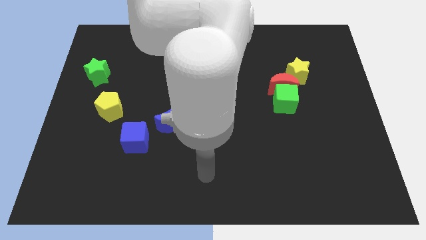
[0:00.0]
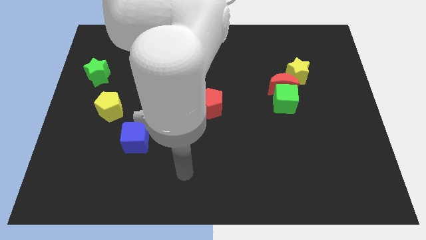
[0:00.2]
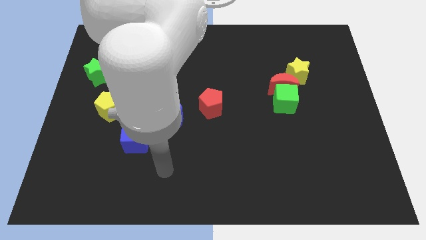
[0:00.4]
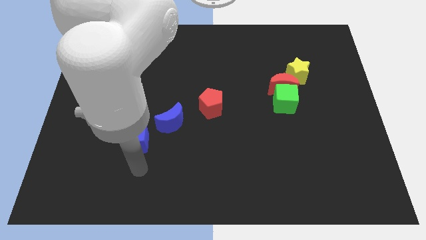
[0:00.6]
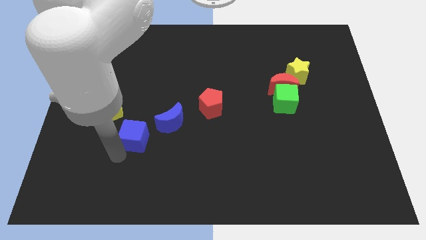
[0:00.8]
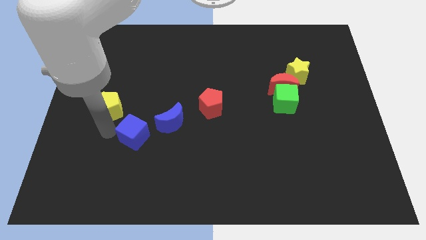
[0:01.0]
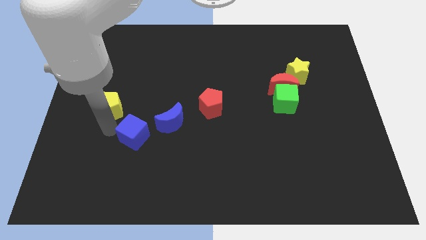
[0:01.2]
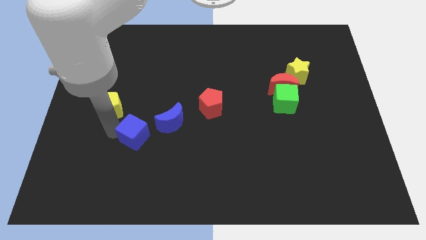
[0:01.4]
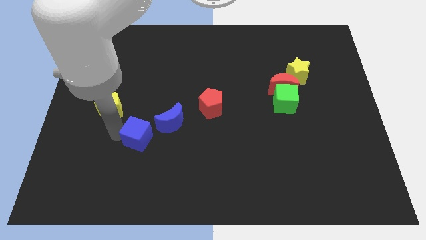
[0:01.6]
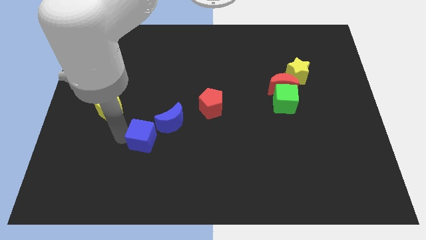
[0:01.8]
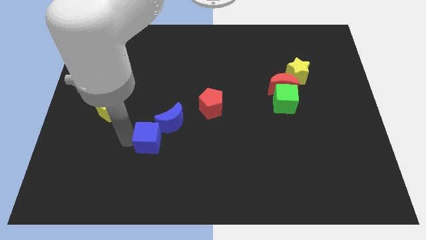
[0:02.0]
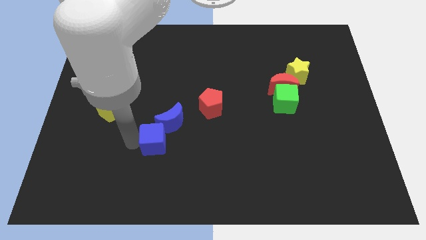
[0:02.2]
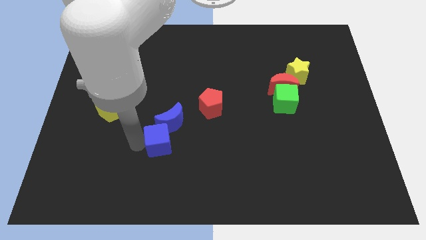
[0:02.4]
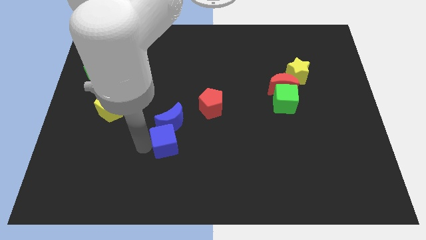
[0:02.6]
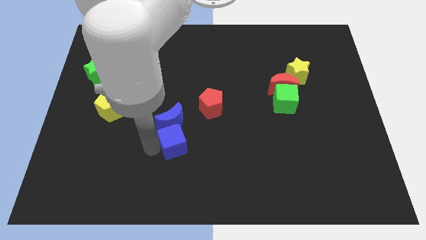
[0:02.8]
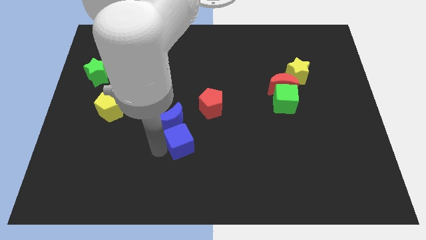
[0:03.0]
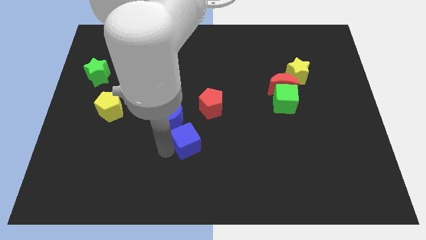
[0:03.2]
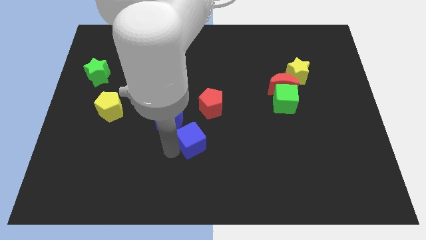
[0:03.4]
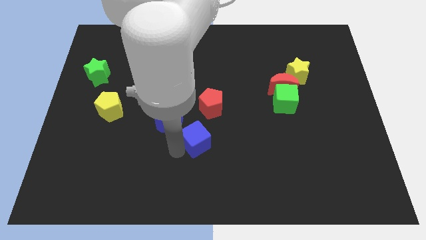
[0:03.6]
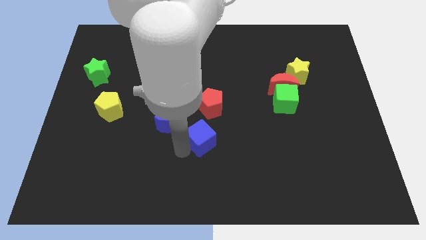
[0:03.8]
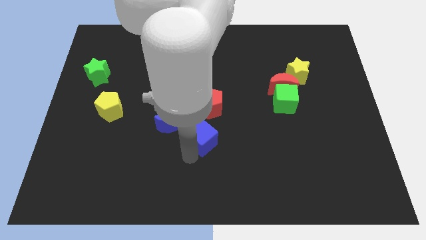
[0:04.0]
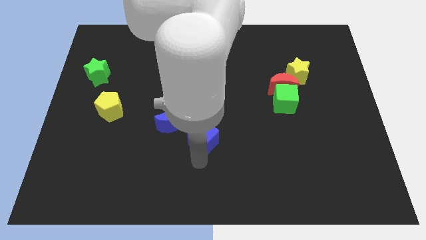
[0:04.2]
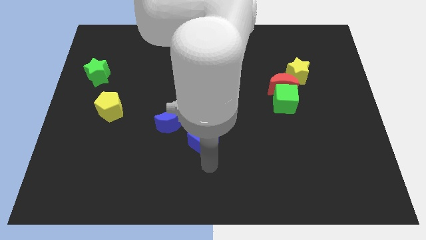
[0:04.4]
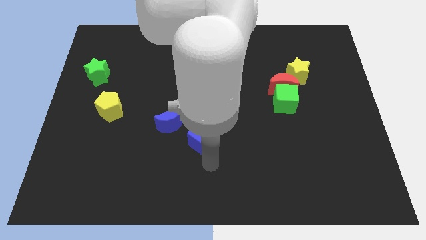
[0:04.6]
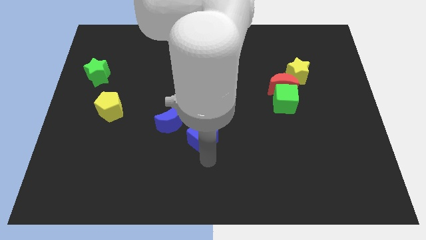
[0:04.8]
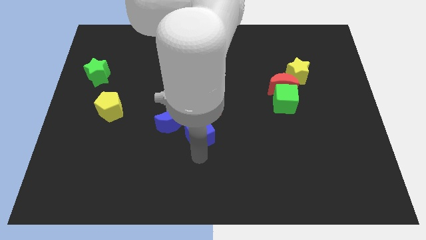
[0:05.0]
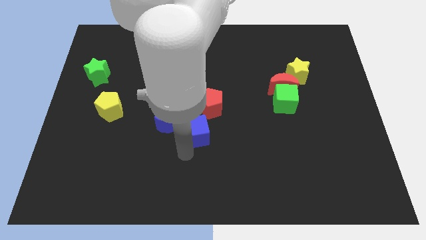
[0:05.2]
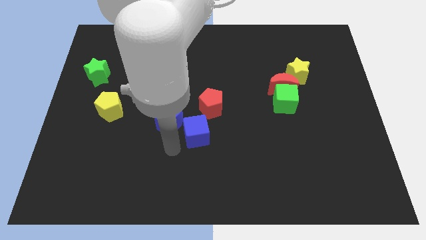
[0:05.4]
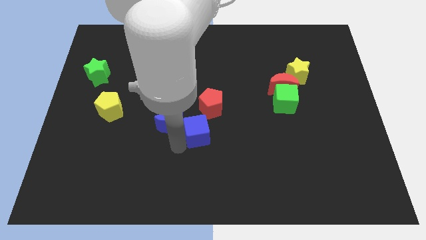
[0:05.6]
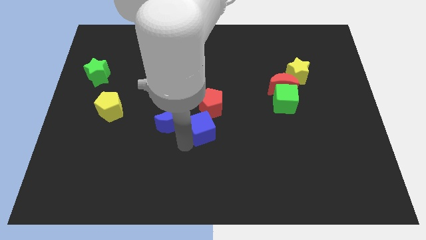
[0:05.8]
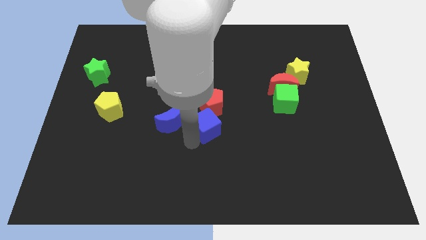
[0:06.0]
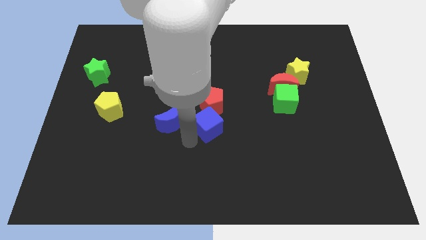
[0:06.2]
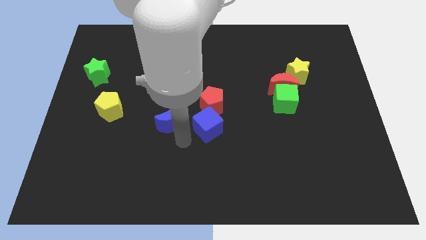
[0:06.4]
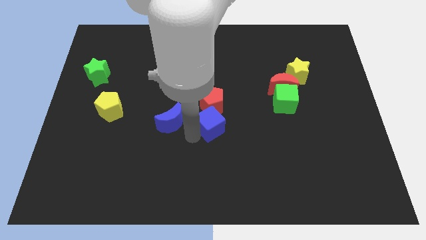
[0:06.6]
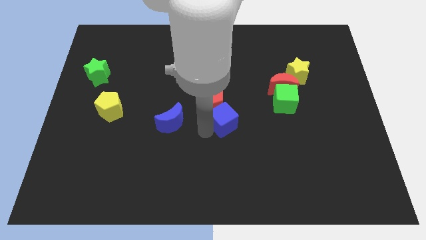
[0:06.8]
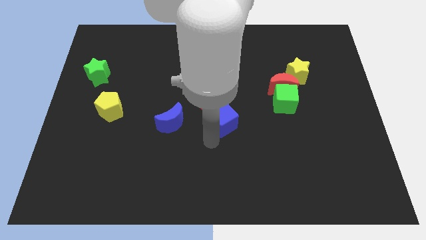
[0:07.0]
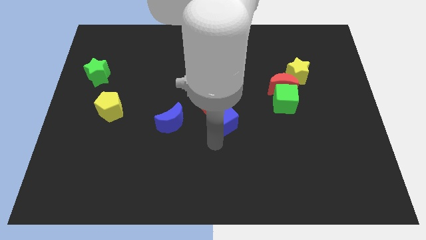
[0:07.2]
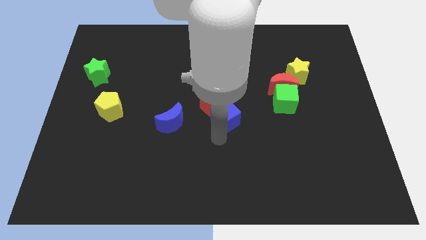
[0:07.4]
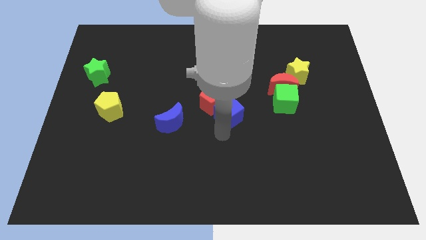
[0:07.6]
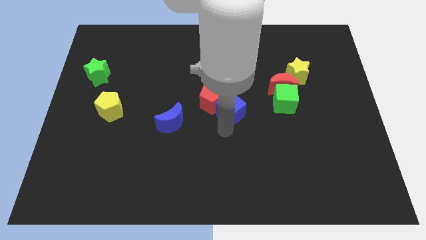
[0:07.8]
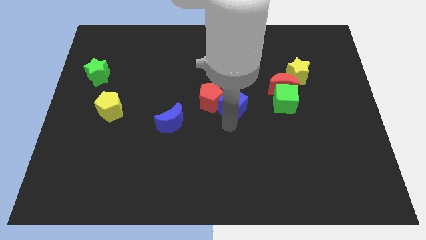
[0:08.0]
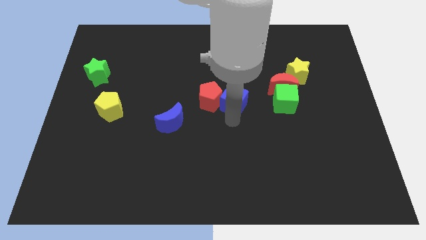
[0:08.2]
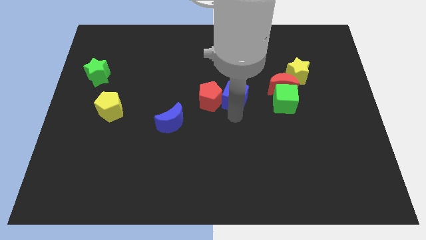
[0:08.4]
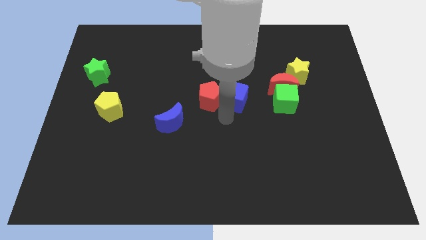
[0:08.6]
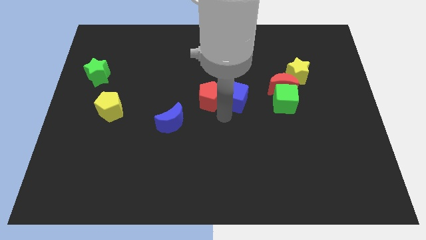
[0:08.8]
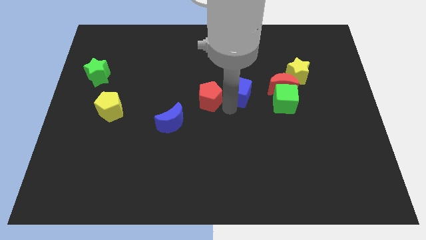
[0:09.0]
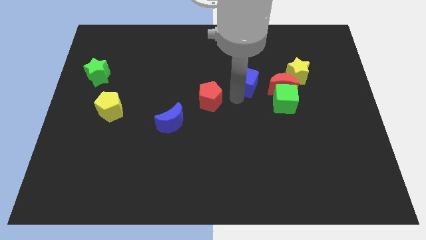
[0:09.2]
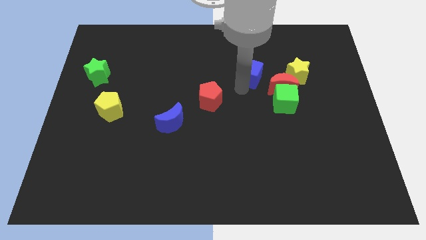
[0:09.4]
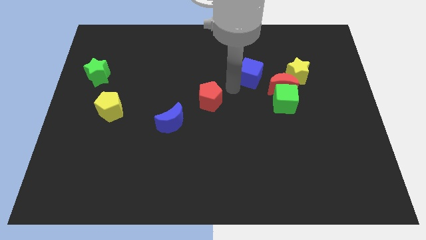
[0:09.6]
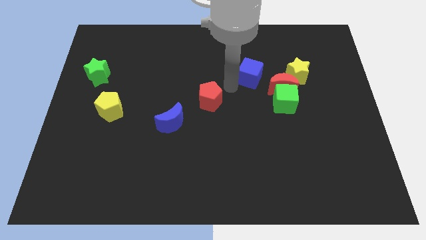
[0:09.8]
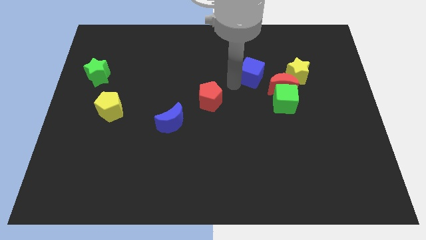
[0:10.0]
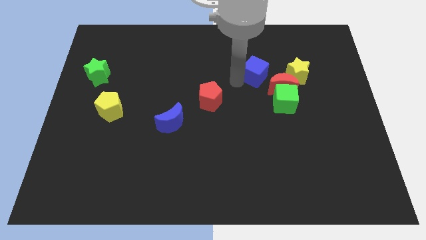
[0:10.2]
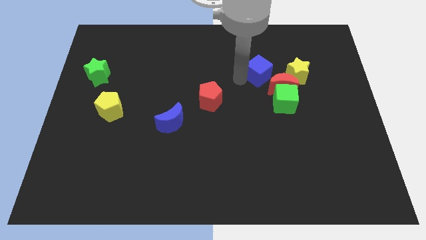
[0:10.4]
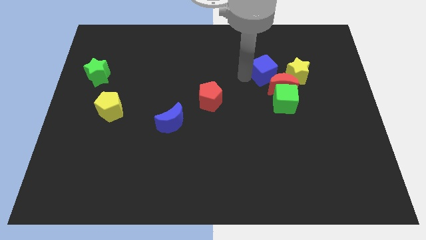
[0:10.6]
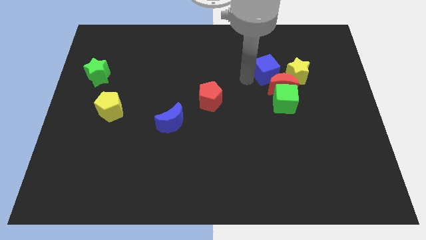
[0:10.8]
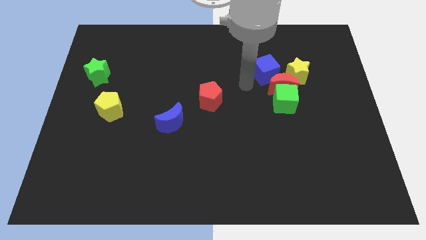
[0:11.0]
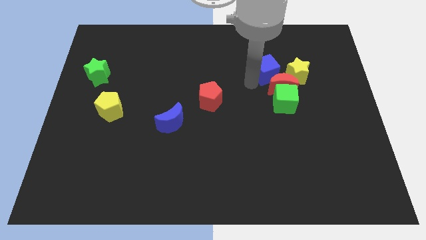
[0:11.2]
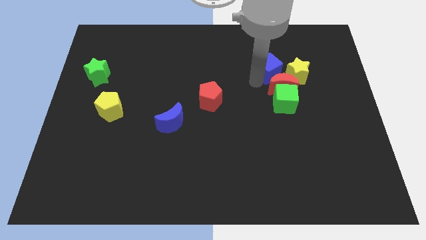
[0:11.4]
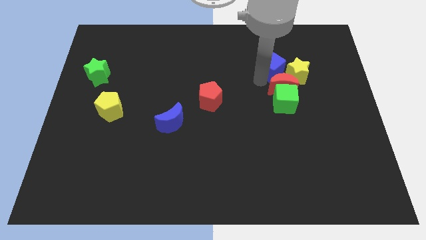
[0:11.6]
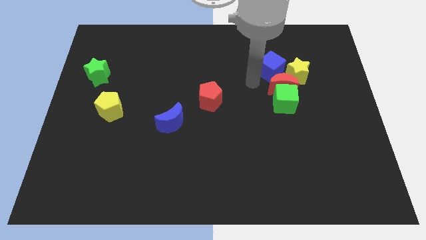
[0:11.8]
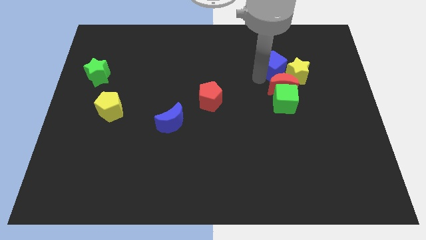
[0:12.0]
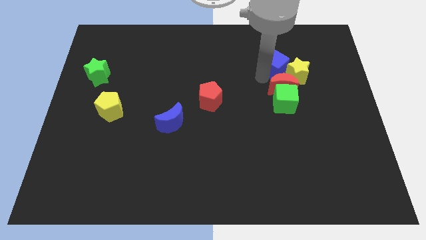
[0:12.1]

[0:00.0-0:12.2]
slide the blue cube towards the yellow star
